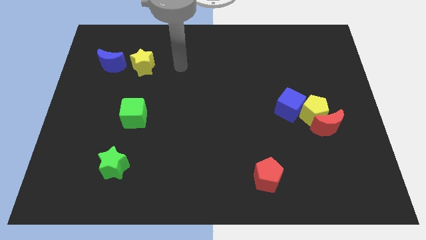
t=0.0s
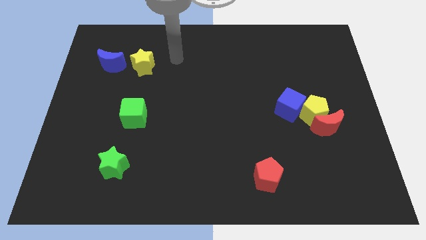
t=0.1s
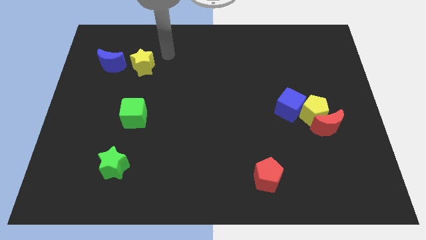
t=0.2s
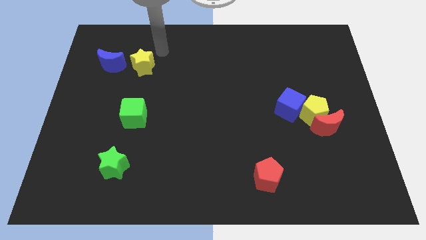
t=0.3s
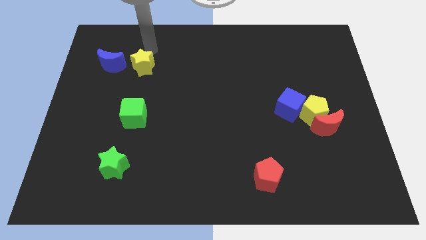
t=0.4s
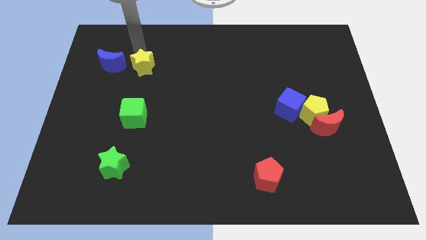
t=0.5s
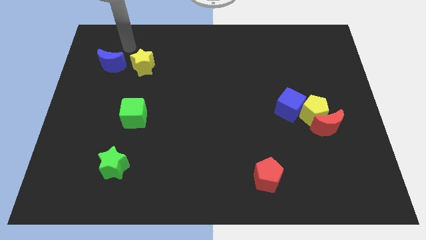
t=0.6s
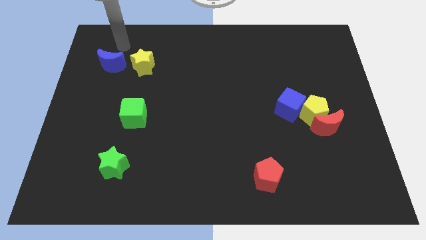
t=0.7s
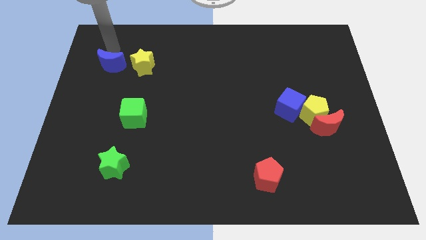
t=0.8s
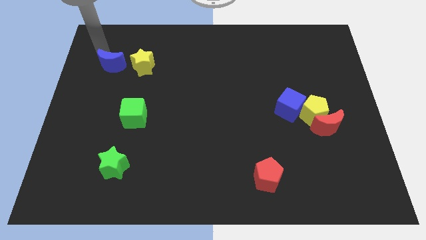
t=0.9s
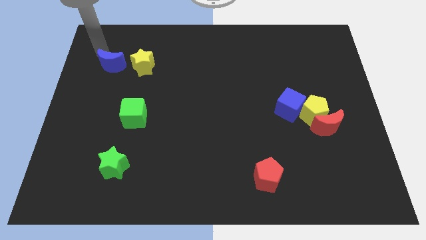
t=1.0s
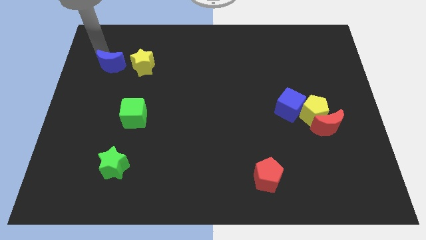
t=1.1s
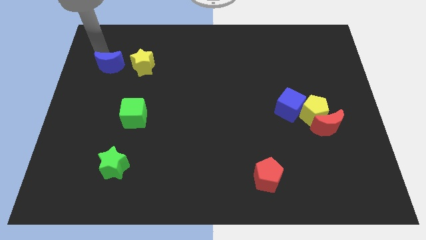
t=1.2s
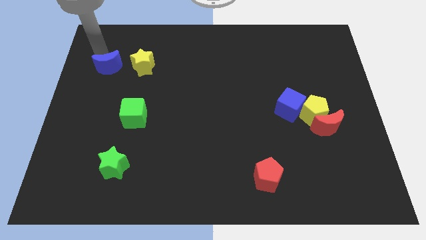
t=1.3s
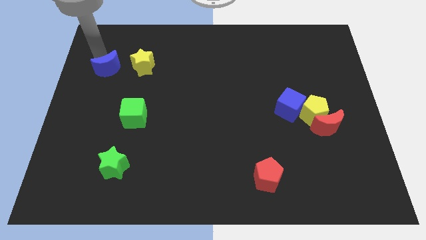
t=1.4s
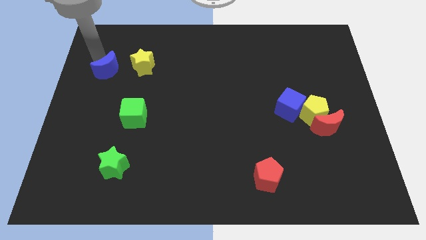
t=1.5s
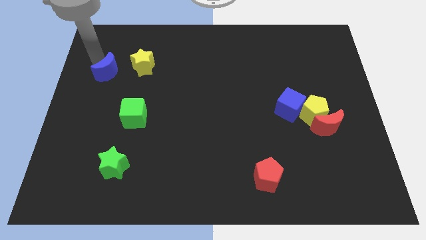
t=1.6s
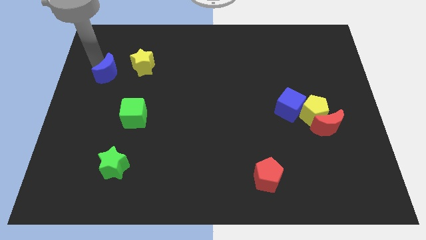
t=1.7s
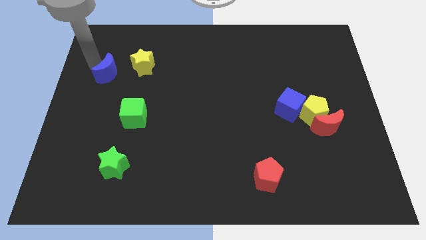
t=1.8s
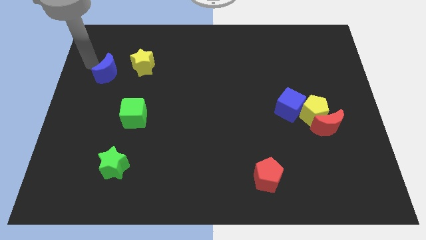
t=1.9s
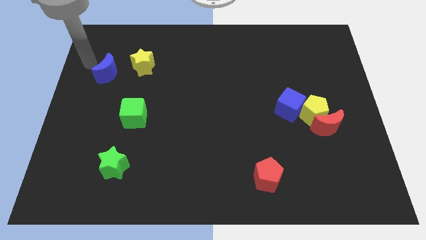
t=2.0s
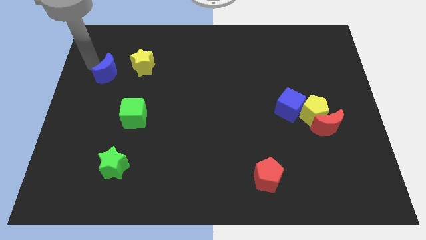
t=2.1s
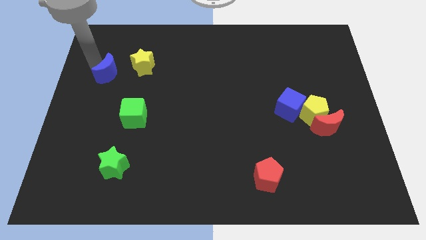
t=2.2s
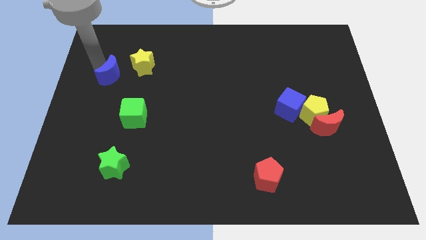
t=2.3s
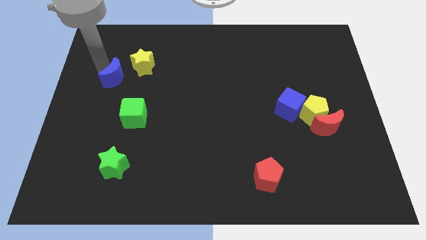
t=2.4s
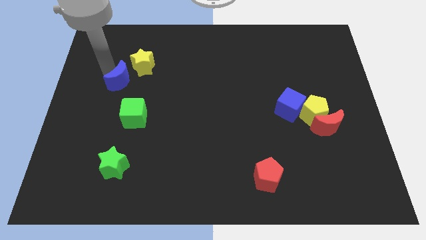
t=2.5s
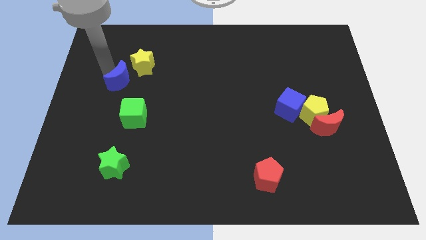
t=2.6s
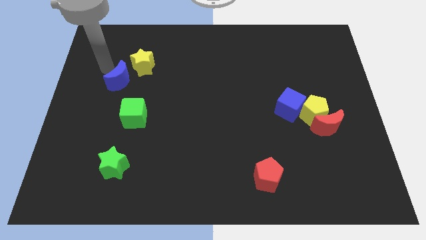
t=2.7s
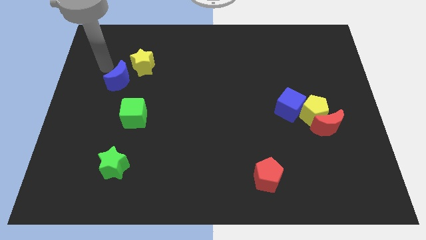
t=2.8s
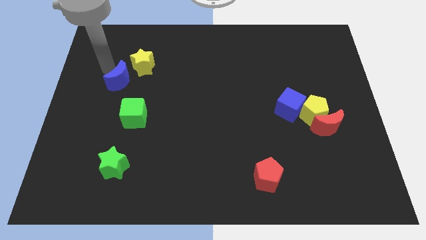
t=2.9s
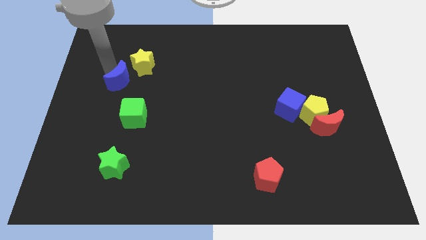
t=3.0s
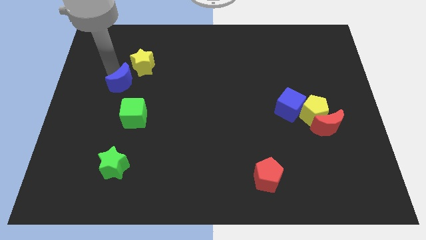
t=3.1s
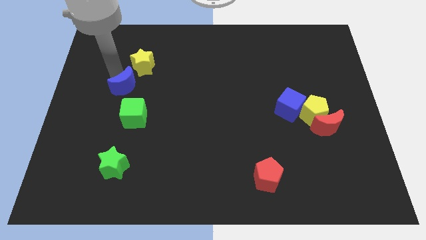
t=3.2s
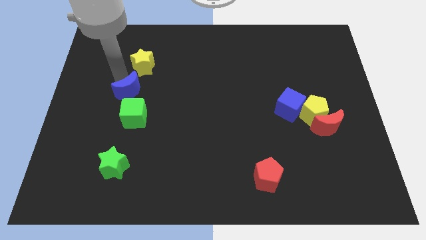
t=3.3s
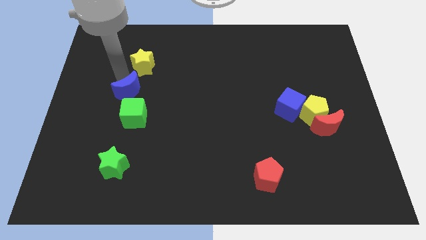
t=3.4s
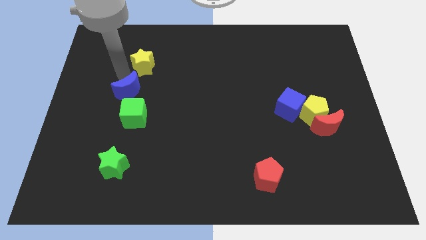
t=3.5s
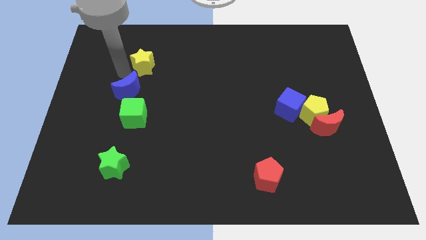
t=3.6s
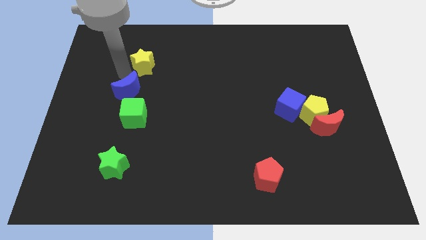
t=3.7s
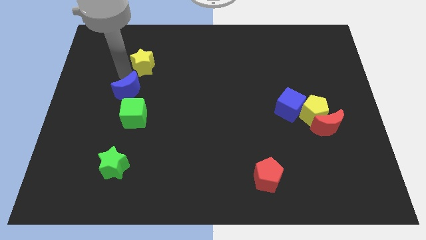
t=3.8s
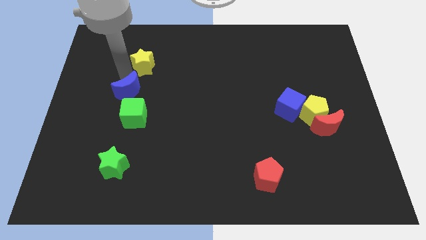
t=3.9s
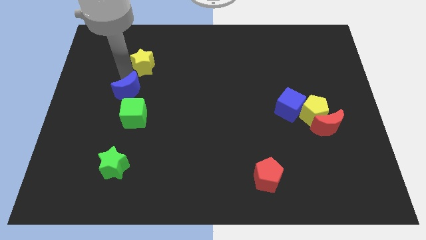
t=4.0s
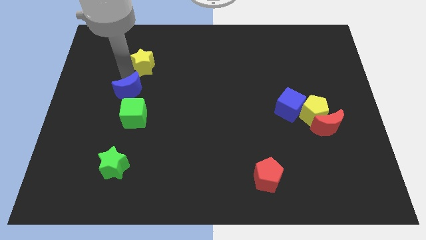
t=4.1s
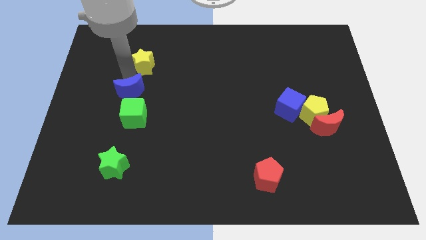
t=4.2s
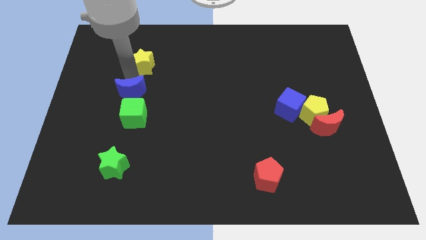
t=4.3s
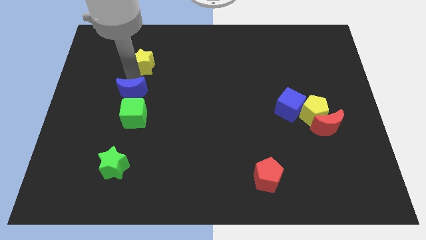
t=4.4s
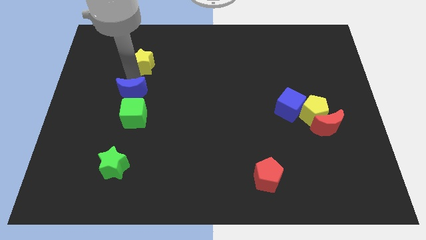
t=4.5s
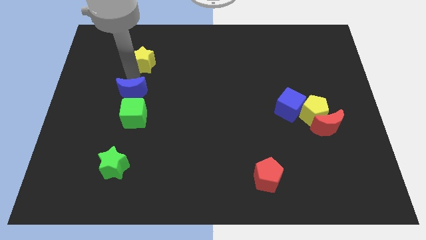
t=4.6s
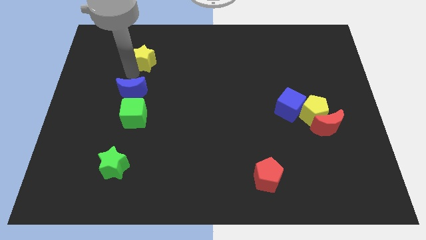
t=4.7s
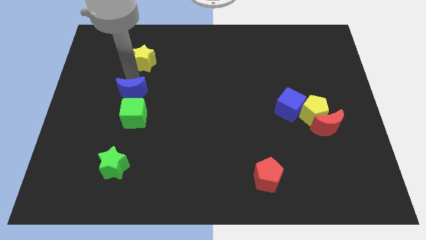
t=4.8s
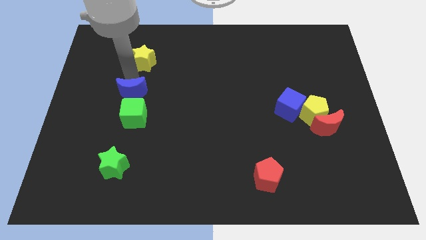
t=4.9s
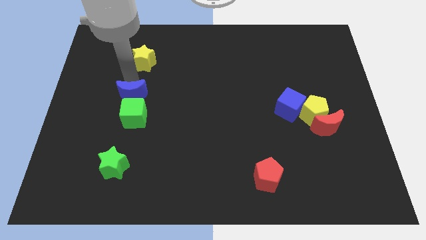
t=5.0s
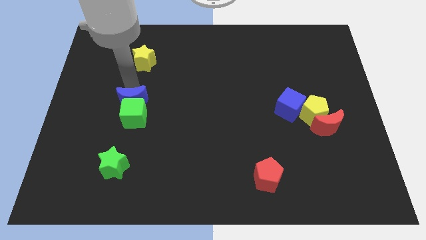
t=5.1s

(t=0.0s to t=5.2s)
slide the blue moon towards the green cube

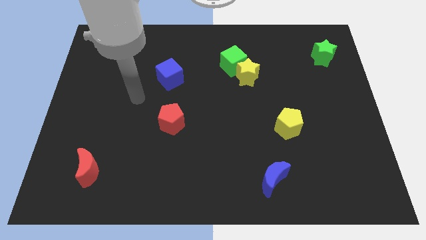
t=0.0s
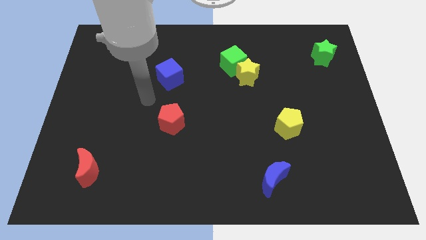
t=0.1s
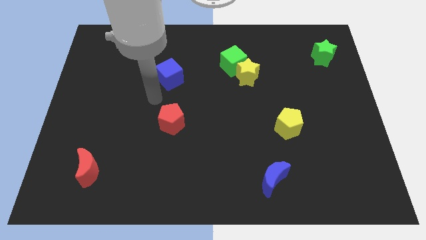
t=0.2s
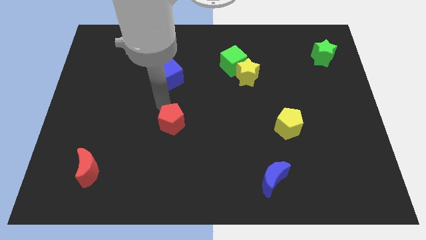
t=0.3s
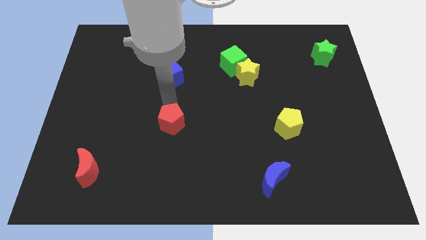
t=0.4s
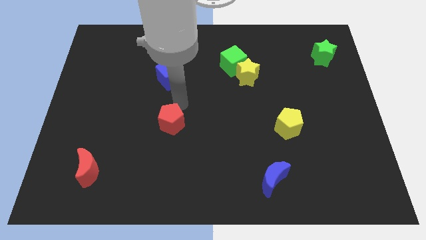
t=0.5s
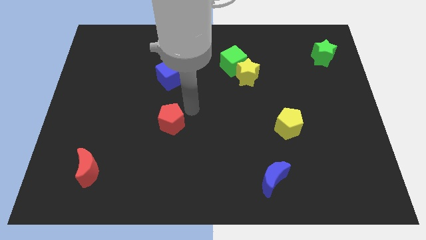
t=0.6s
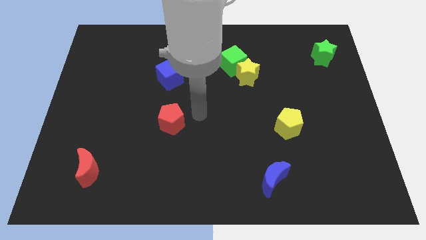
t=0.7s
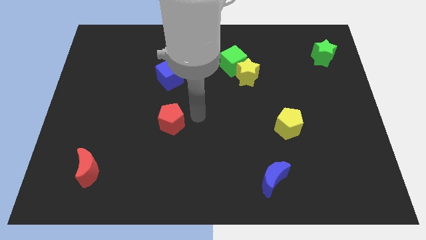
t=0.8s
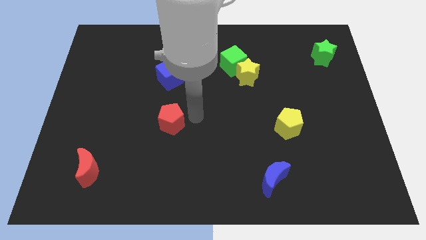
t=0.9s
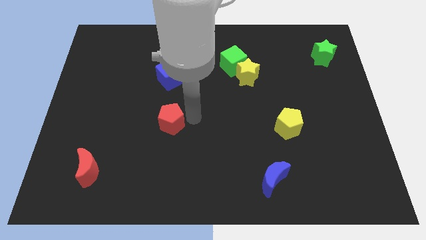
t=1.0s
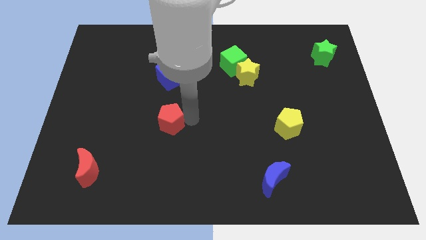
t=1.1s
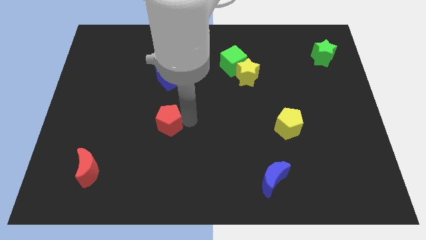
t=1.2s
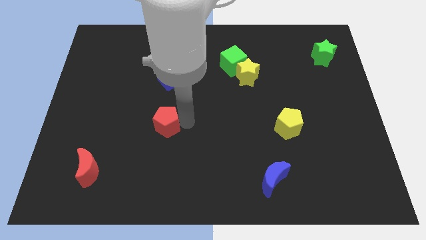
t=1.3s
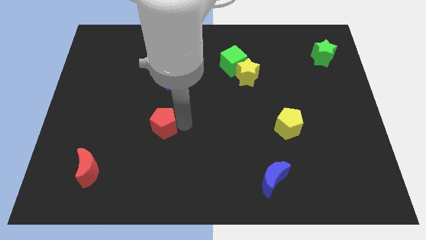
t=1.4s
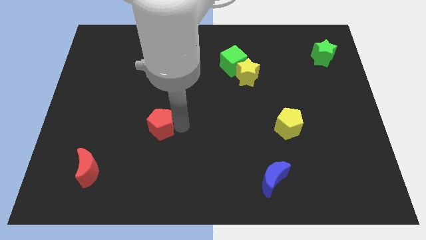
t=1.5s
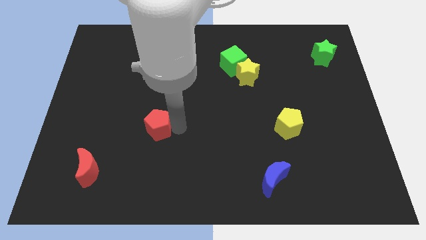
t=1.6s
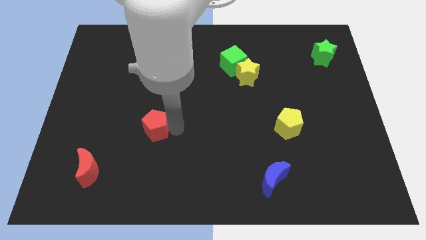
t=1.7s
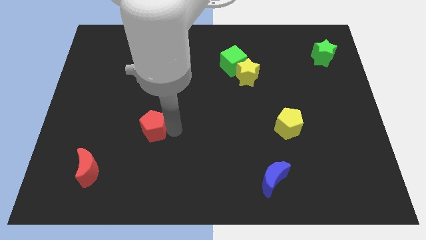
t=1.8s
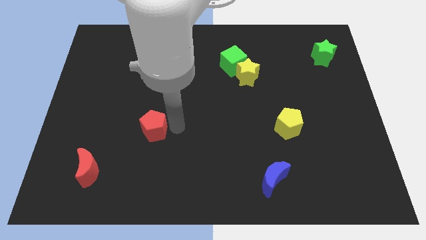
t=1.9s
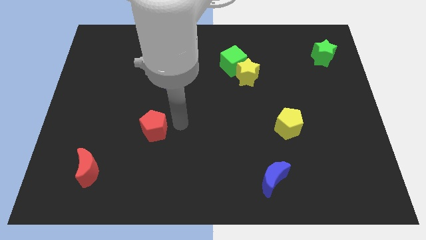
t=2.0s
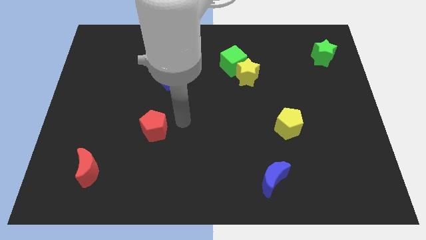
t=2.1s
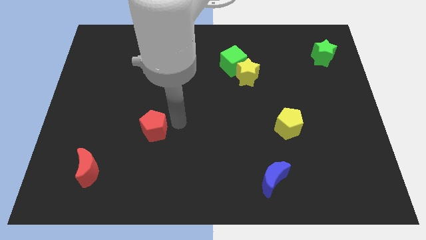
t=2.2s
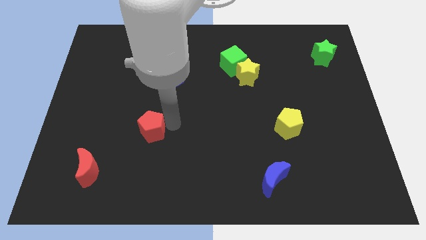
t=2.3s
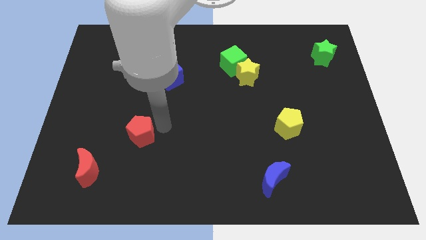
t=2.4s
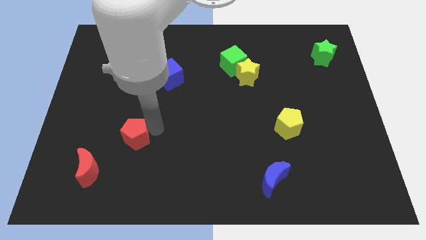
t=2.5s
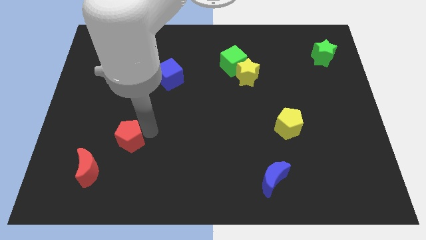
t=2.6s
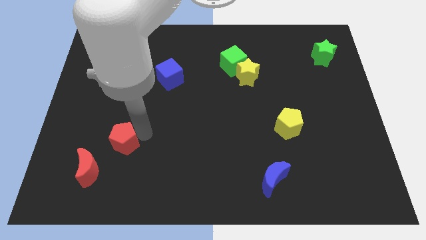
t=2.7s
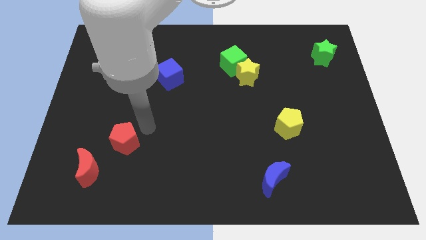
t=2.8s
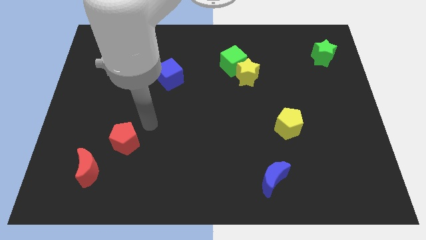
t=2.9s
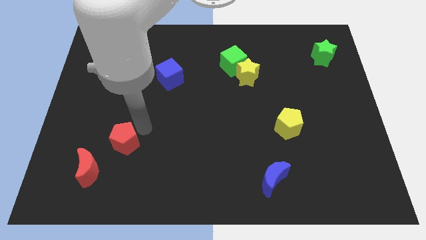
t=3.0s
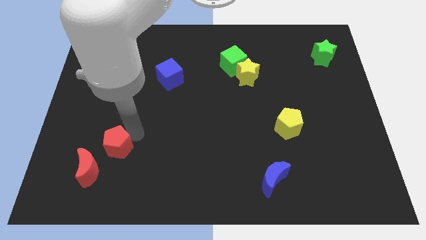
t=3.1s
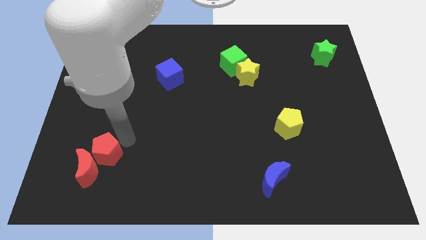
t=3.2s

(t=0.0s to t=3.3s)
slide the red pentagon close to the red moon
